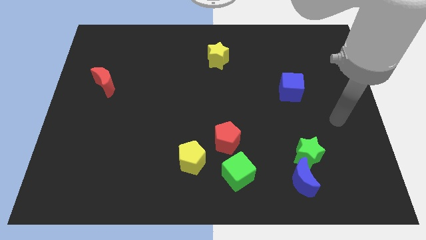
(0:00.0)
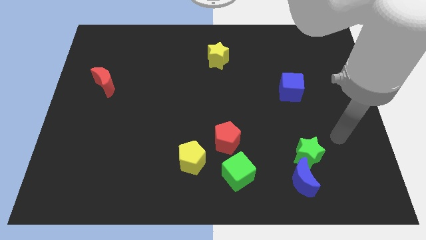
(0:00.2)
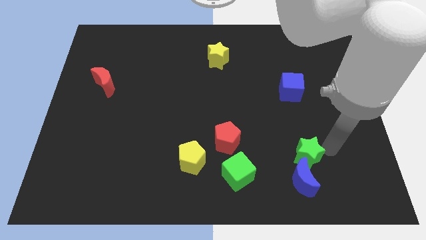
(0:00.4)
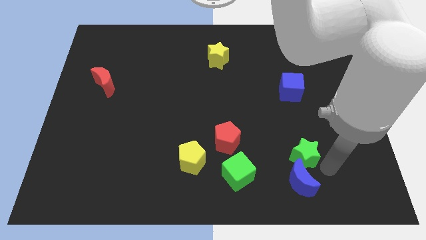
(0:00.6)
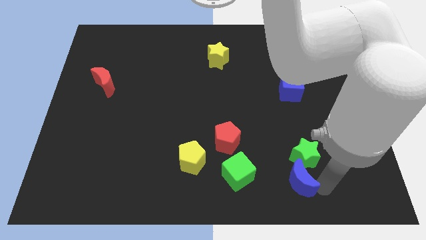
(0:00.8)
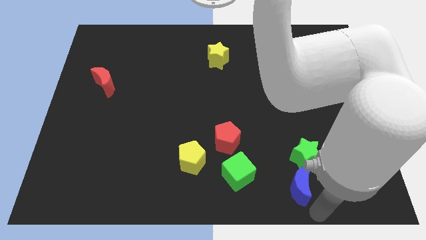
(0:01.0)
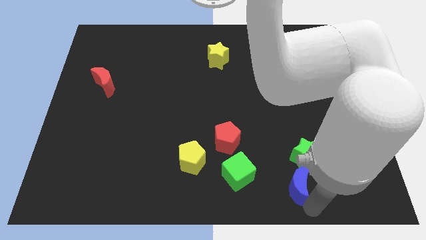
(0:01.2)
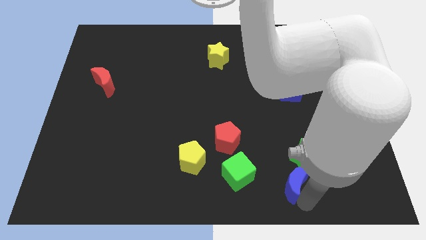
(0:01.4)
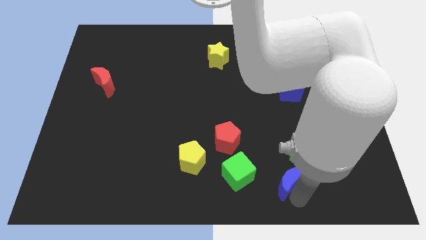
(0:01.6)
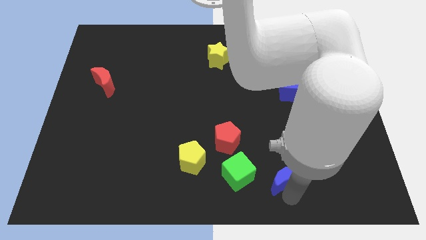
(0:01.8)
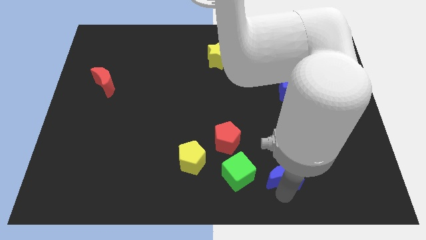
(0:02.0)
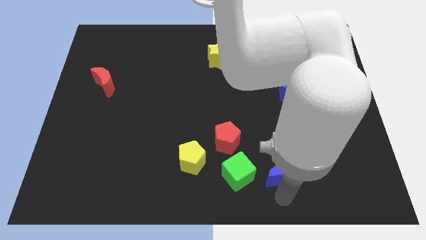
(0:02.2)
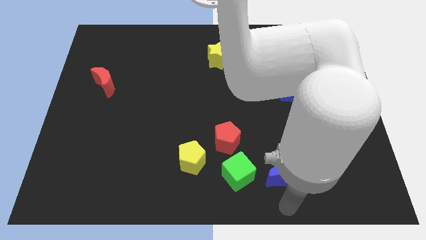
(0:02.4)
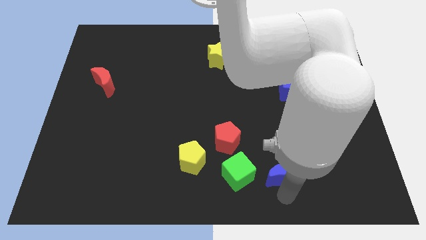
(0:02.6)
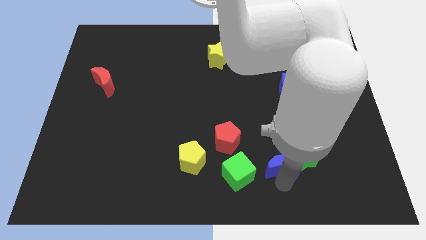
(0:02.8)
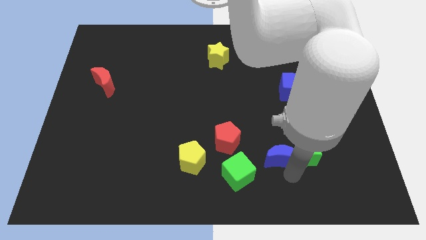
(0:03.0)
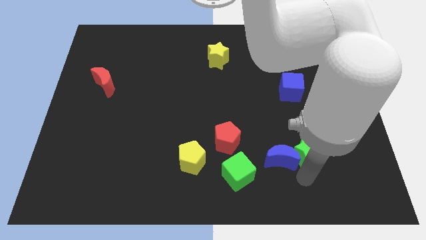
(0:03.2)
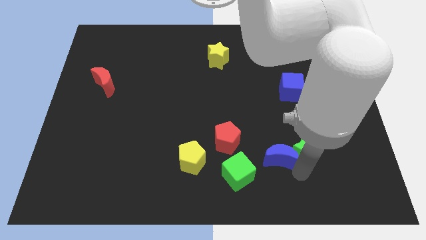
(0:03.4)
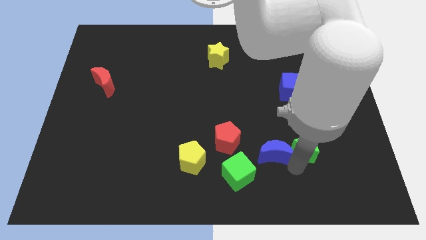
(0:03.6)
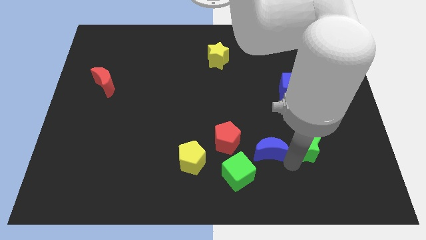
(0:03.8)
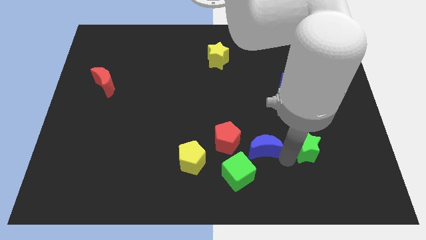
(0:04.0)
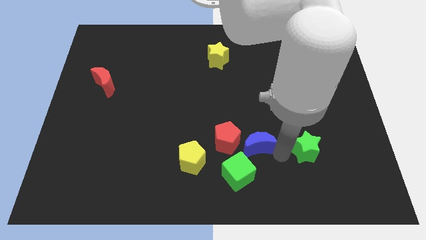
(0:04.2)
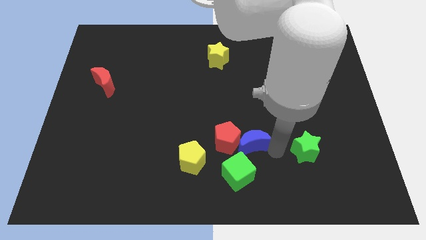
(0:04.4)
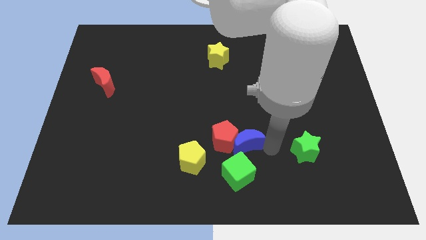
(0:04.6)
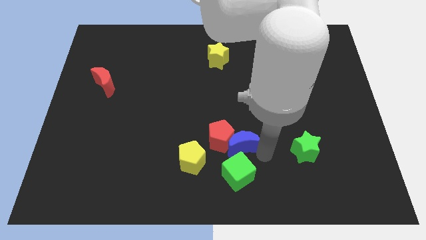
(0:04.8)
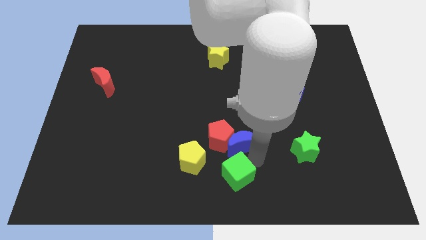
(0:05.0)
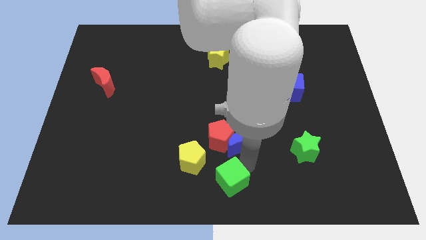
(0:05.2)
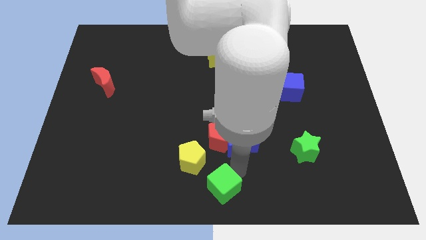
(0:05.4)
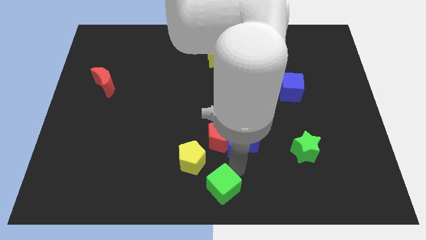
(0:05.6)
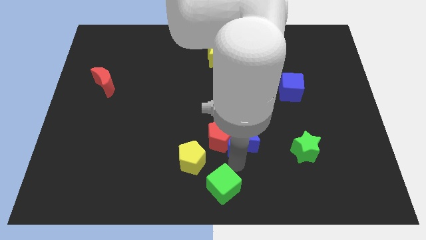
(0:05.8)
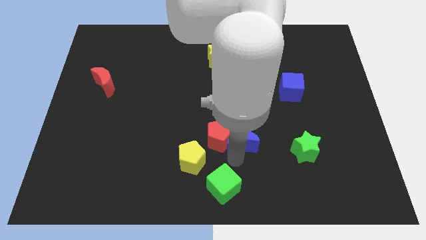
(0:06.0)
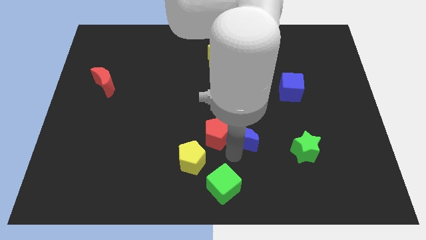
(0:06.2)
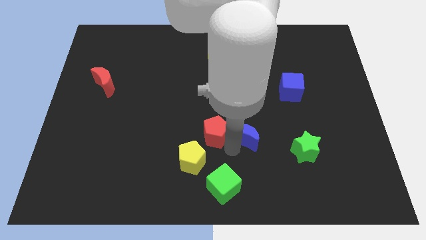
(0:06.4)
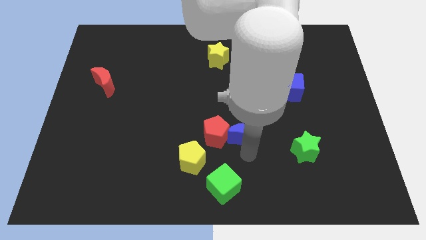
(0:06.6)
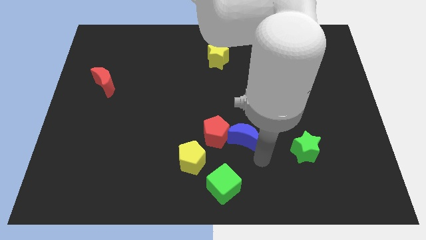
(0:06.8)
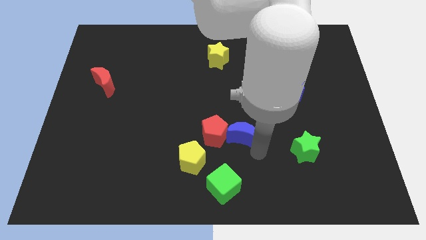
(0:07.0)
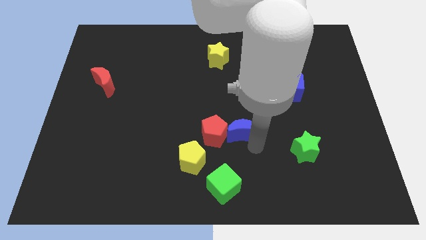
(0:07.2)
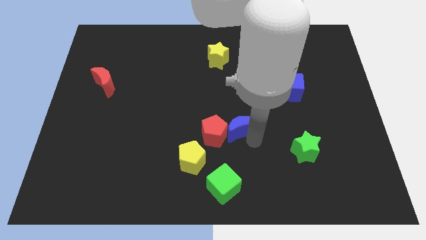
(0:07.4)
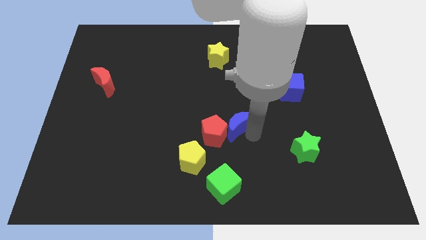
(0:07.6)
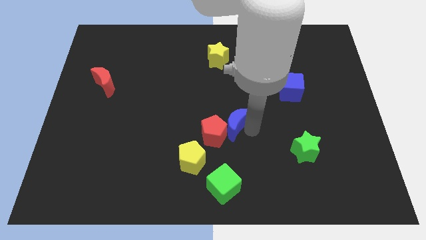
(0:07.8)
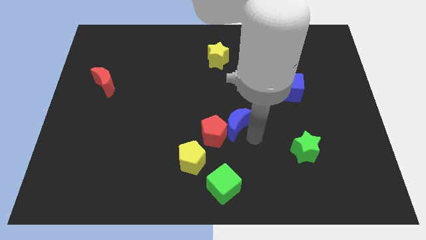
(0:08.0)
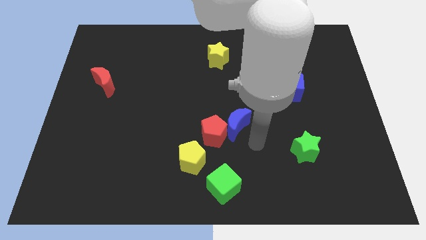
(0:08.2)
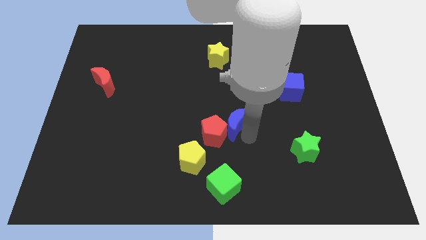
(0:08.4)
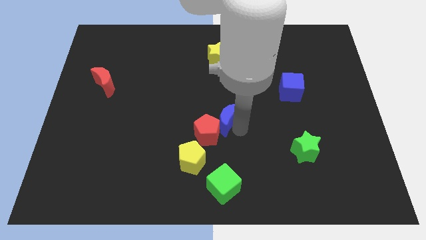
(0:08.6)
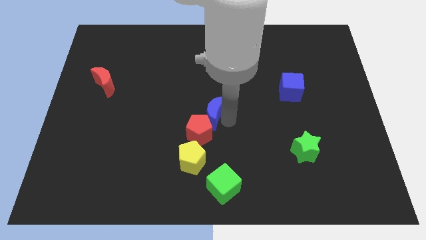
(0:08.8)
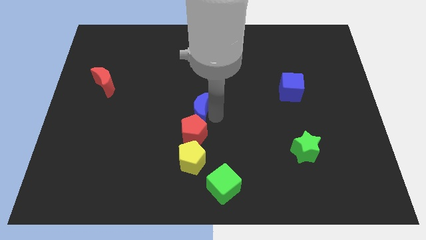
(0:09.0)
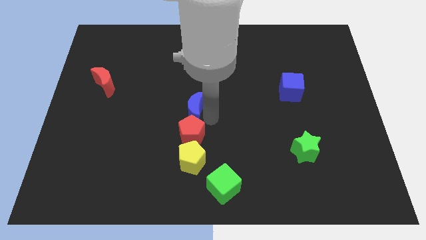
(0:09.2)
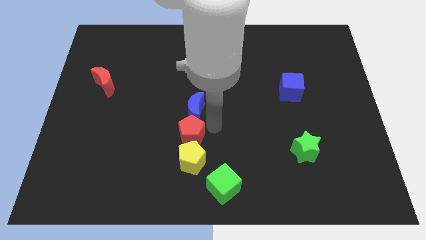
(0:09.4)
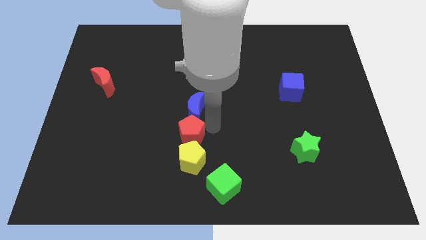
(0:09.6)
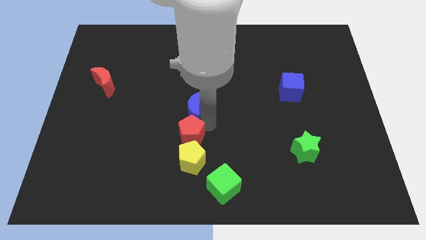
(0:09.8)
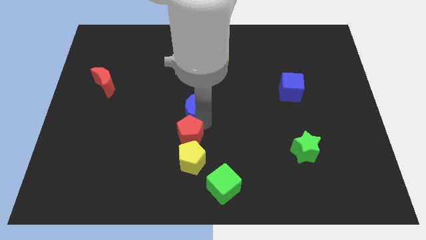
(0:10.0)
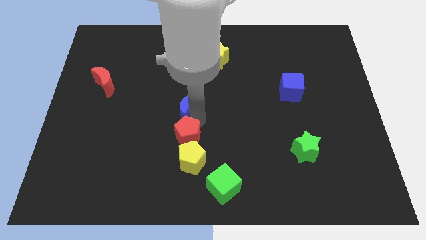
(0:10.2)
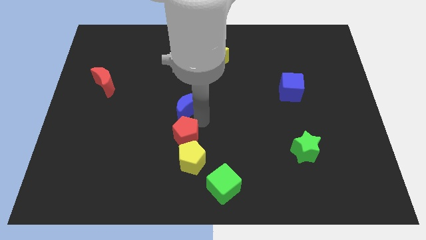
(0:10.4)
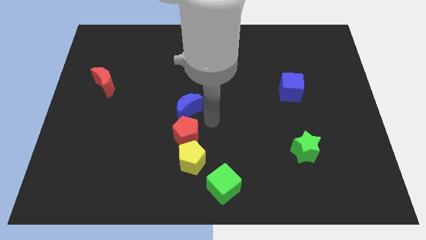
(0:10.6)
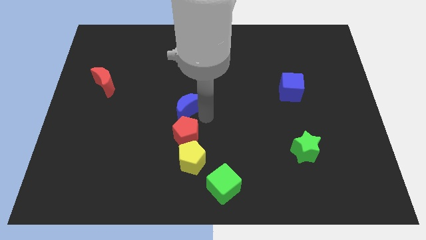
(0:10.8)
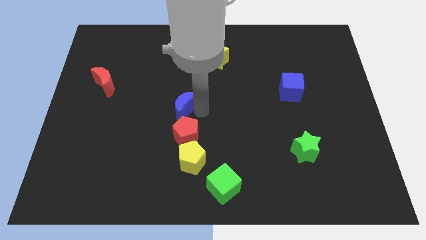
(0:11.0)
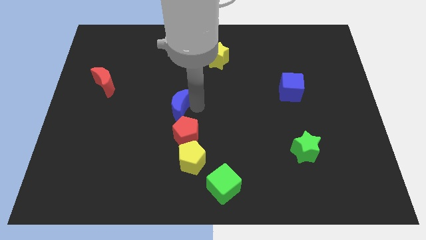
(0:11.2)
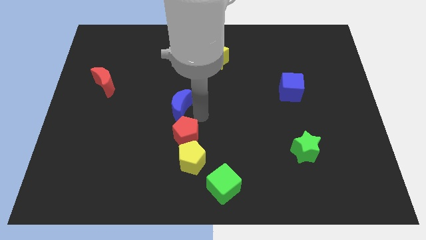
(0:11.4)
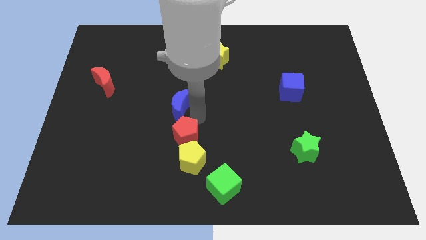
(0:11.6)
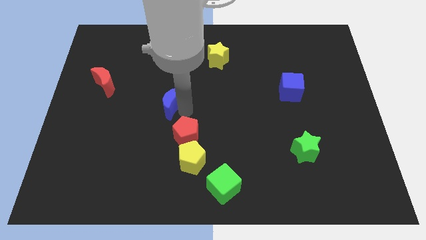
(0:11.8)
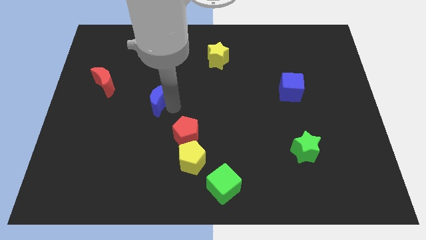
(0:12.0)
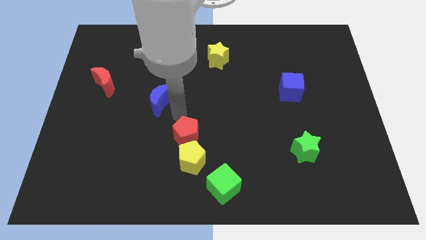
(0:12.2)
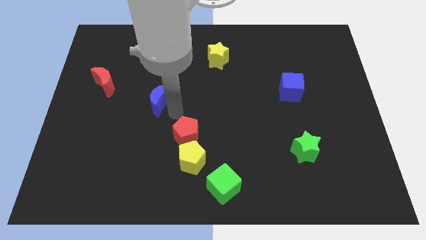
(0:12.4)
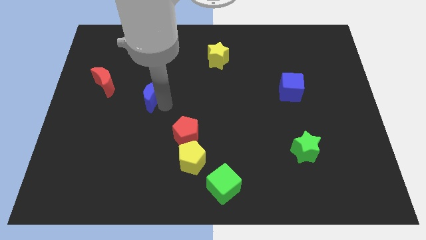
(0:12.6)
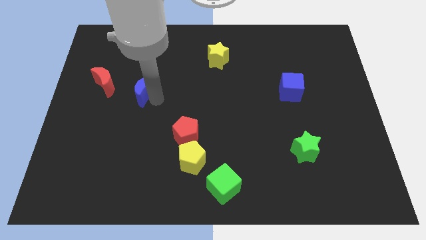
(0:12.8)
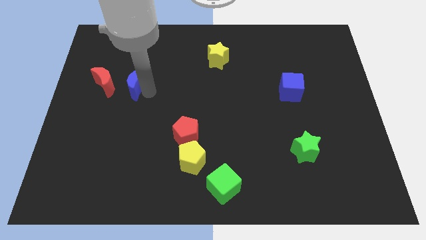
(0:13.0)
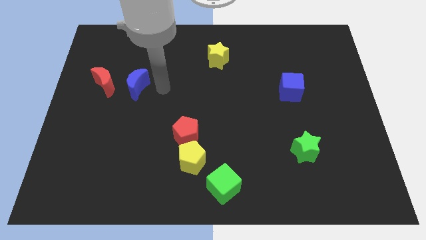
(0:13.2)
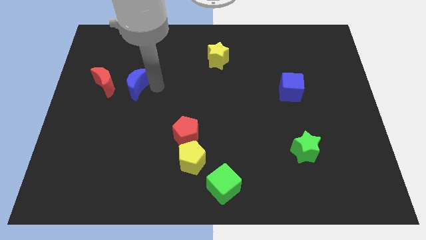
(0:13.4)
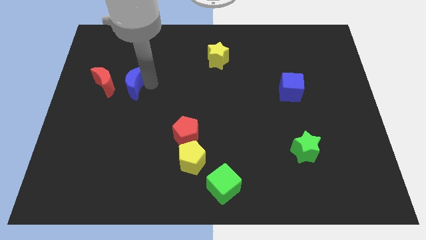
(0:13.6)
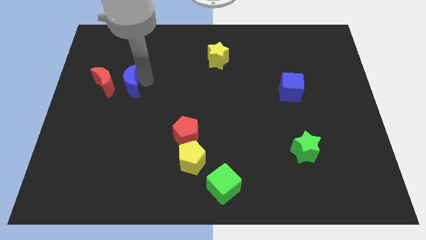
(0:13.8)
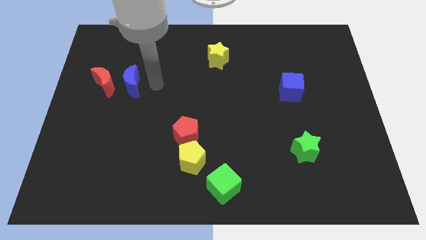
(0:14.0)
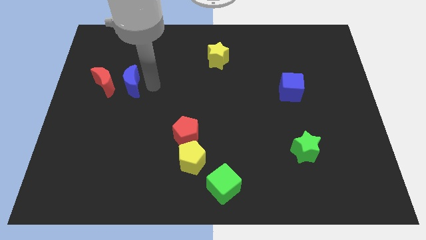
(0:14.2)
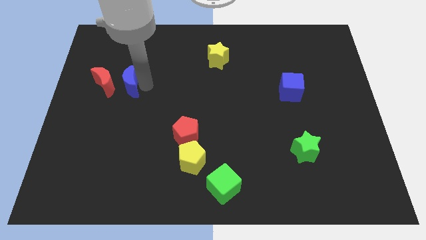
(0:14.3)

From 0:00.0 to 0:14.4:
move the blue moon to the red moon
